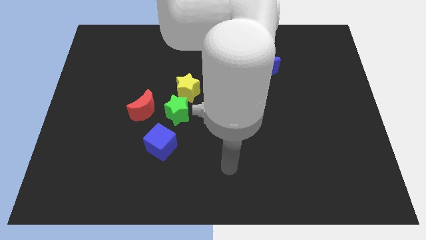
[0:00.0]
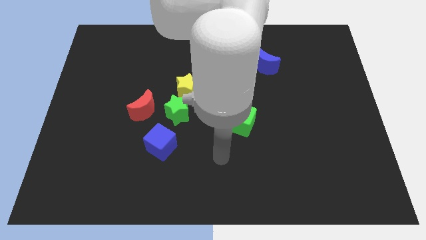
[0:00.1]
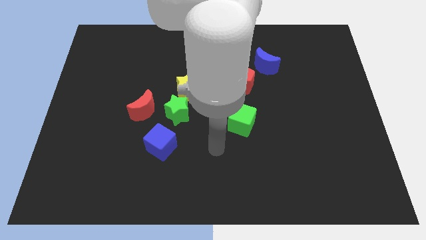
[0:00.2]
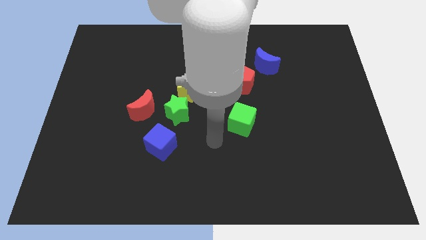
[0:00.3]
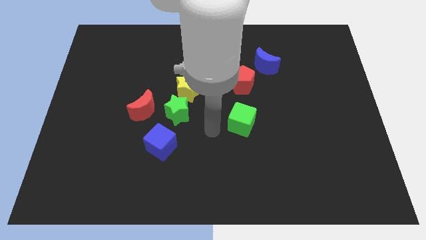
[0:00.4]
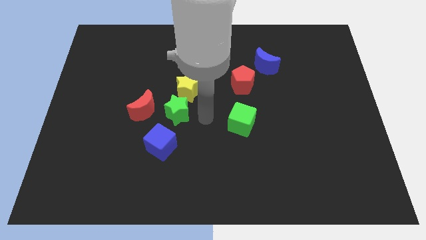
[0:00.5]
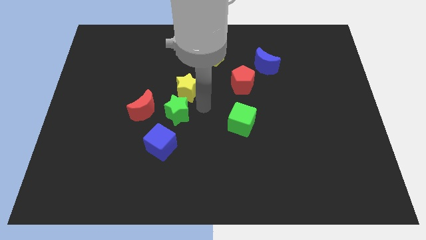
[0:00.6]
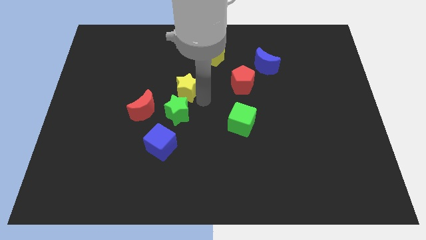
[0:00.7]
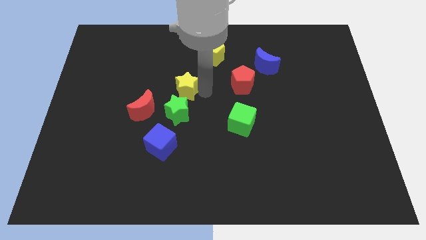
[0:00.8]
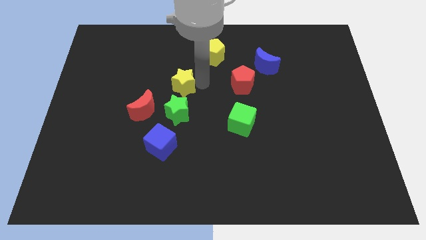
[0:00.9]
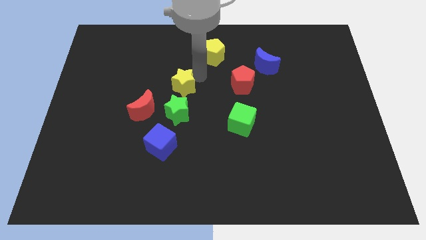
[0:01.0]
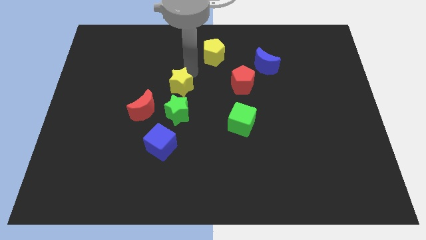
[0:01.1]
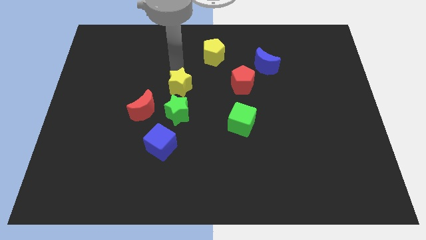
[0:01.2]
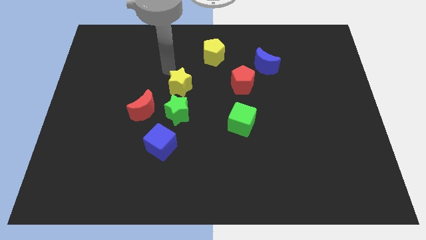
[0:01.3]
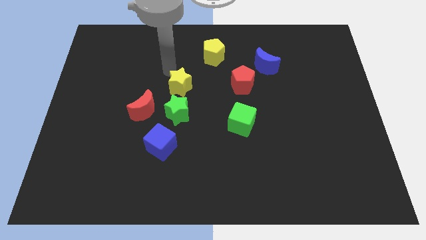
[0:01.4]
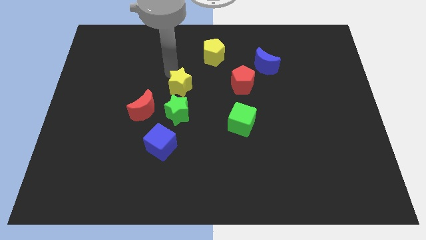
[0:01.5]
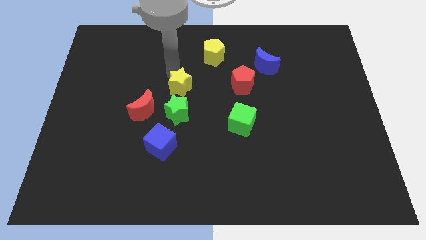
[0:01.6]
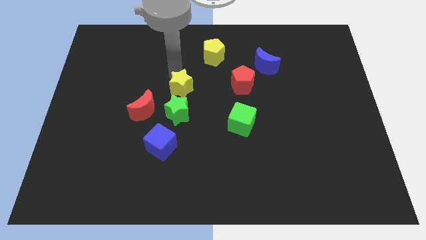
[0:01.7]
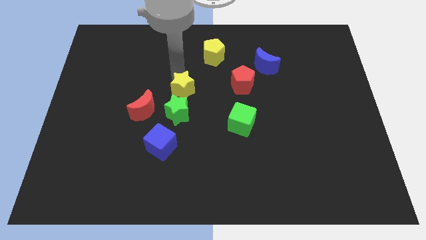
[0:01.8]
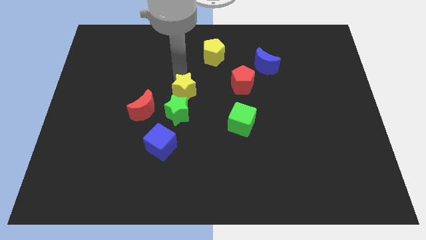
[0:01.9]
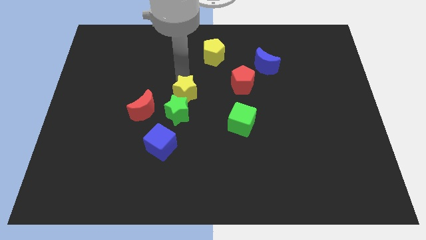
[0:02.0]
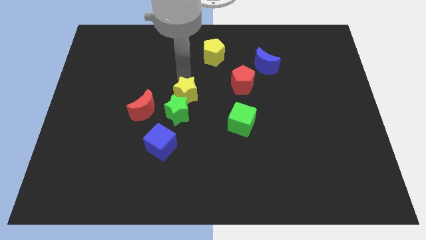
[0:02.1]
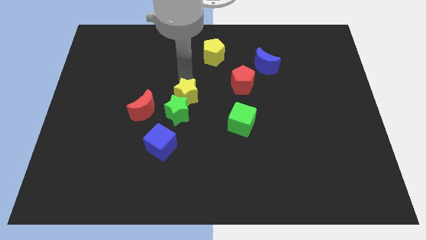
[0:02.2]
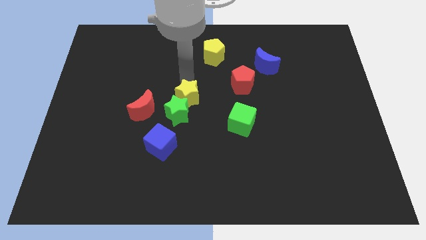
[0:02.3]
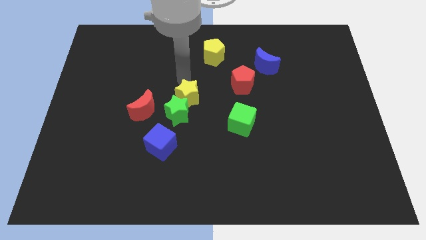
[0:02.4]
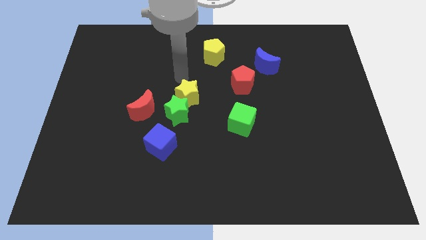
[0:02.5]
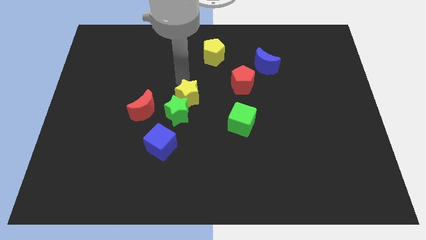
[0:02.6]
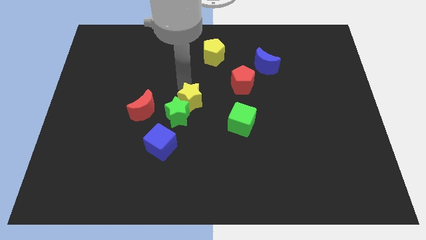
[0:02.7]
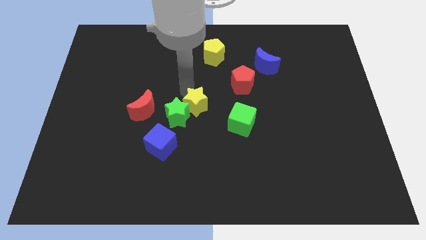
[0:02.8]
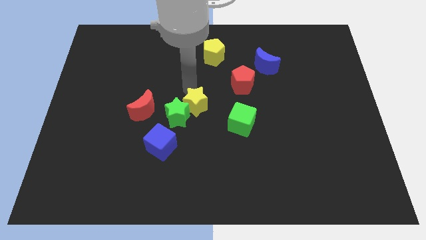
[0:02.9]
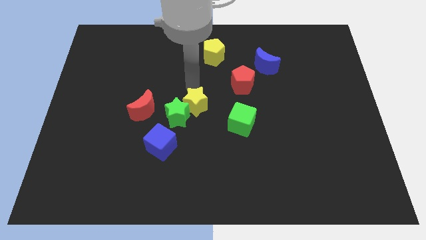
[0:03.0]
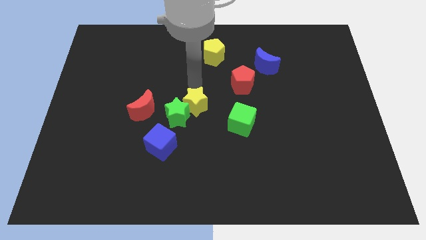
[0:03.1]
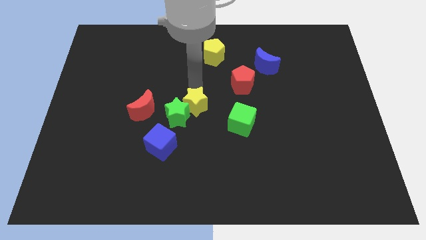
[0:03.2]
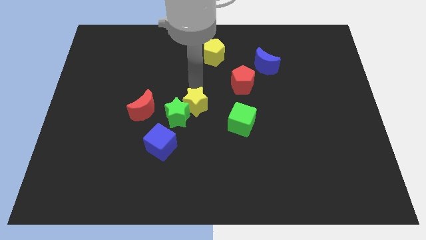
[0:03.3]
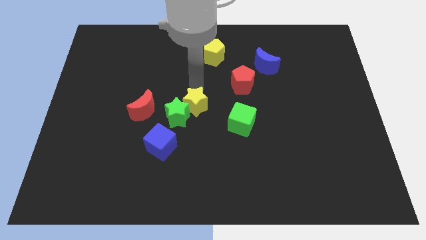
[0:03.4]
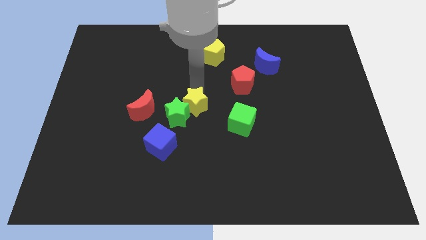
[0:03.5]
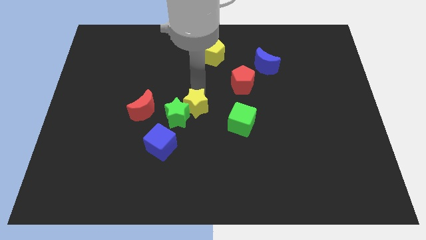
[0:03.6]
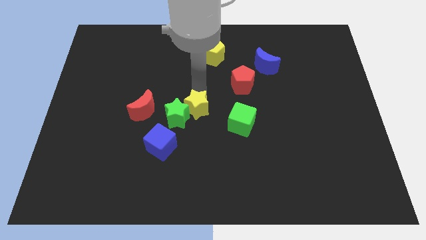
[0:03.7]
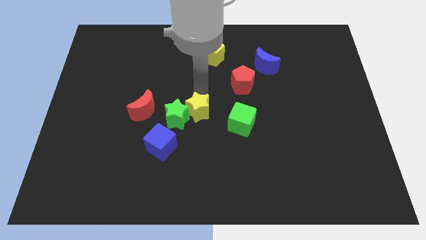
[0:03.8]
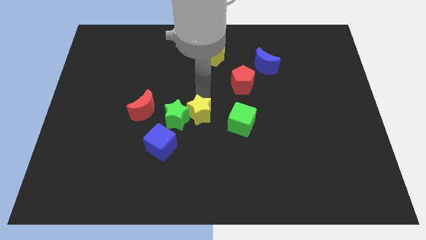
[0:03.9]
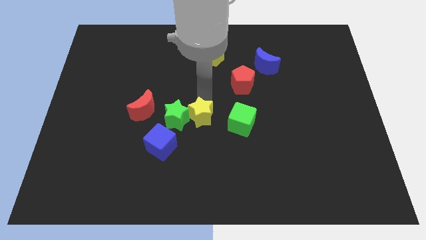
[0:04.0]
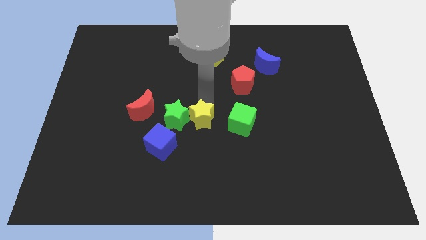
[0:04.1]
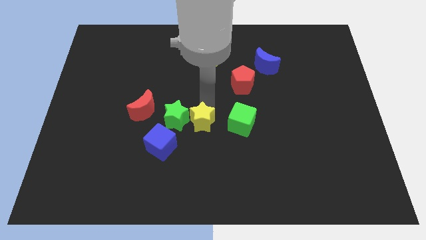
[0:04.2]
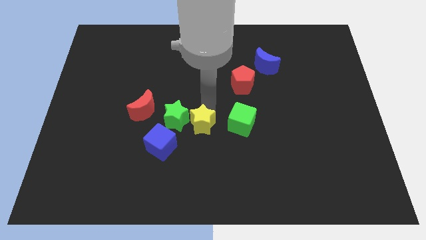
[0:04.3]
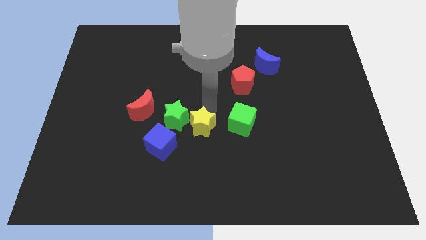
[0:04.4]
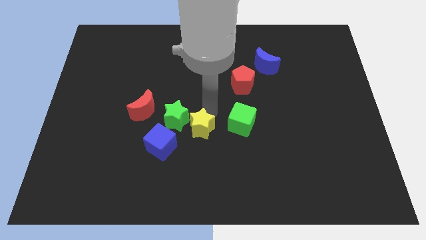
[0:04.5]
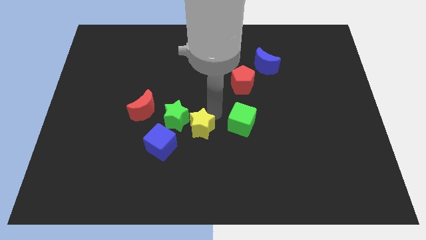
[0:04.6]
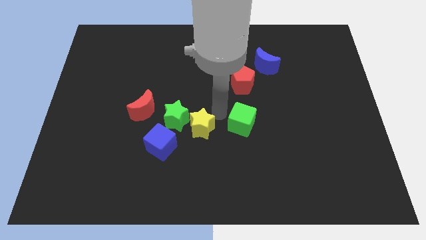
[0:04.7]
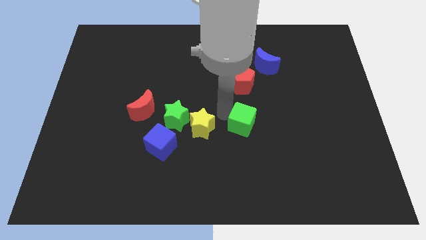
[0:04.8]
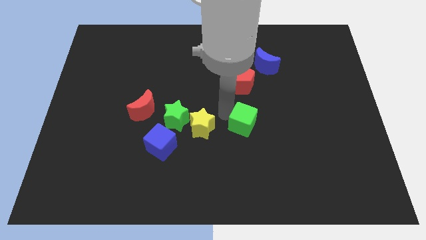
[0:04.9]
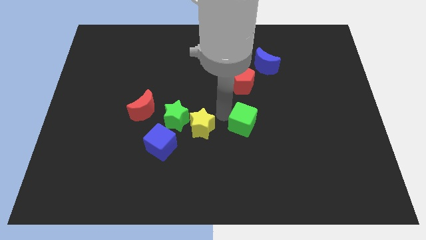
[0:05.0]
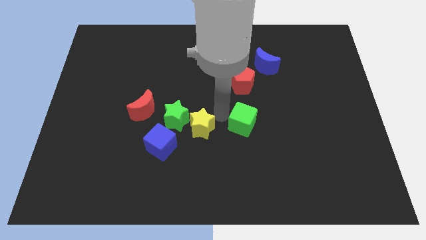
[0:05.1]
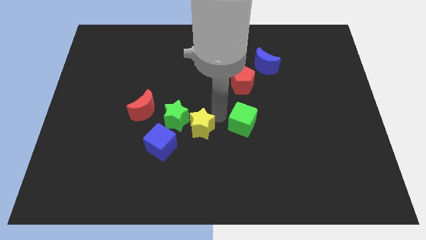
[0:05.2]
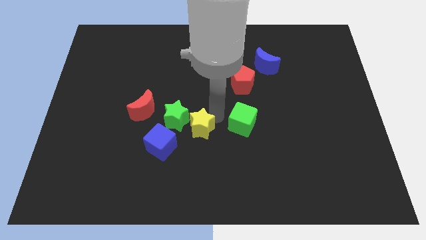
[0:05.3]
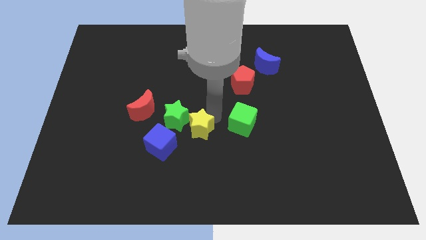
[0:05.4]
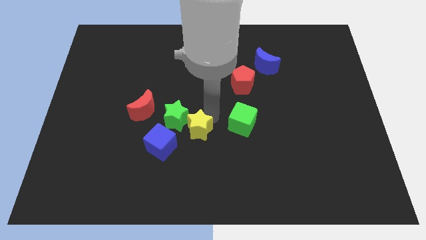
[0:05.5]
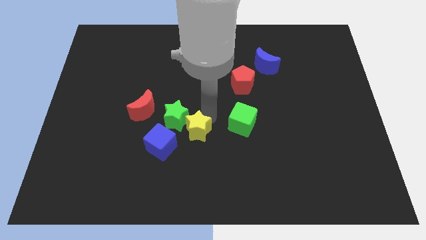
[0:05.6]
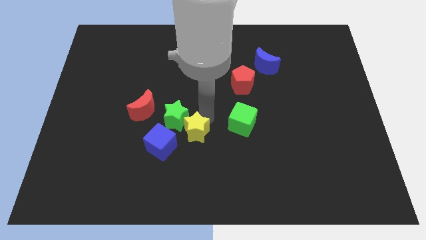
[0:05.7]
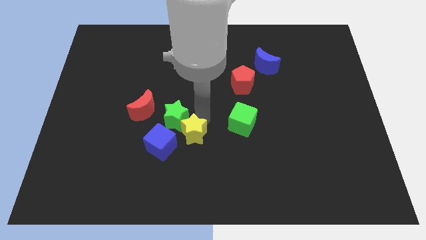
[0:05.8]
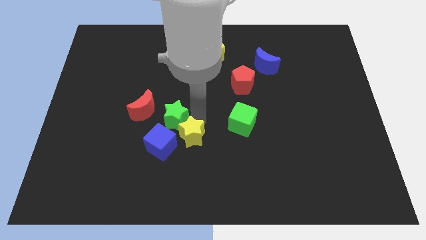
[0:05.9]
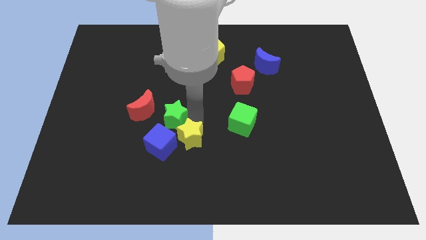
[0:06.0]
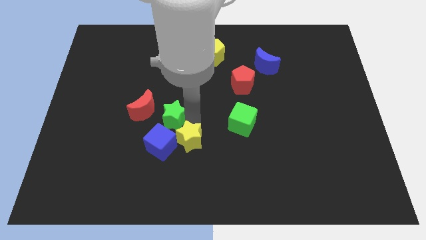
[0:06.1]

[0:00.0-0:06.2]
push the yellow star to the blue cube
